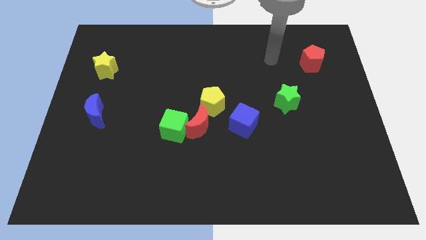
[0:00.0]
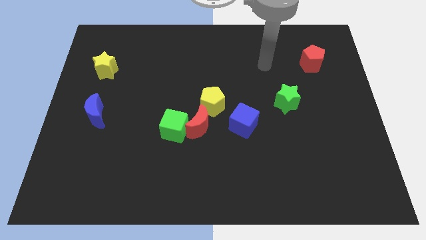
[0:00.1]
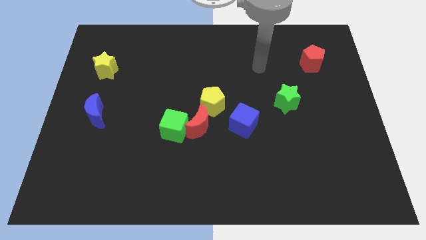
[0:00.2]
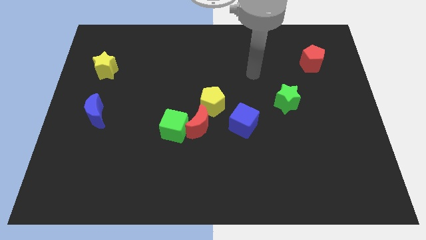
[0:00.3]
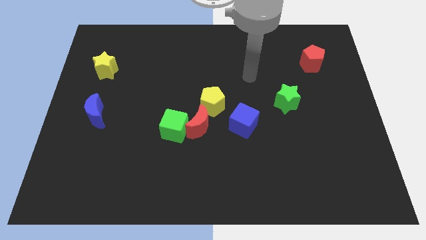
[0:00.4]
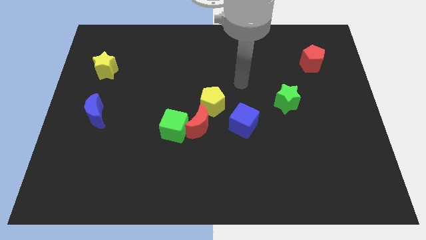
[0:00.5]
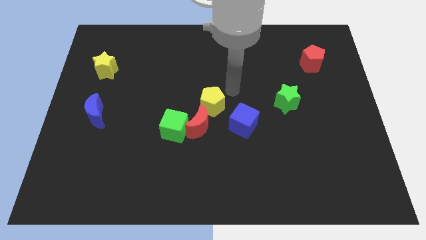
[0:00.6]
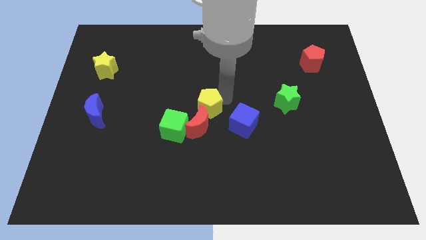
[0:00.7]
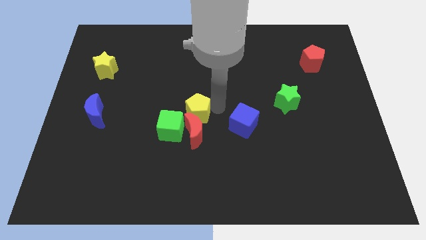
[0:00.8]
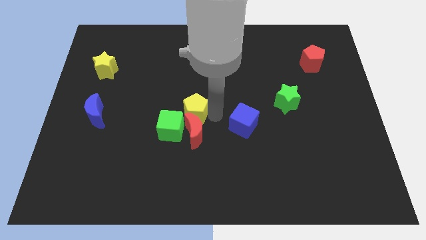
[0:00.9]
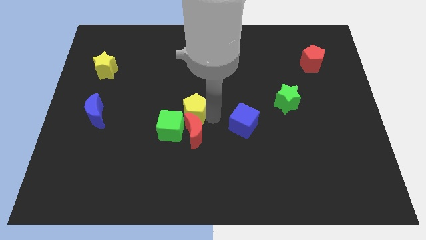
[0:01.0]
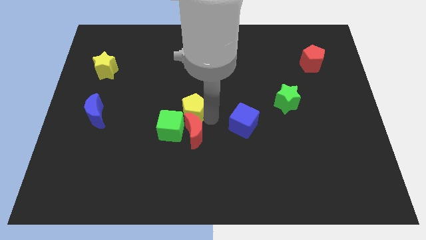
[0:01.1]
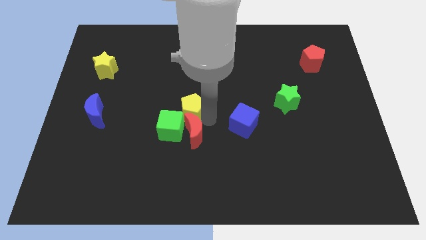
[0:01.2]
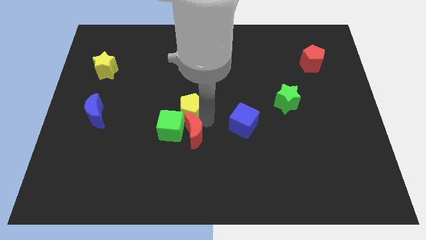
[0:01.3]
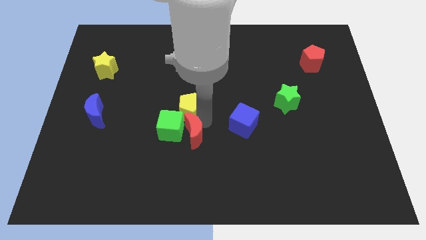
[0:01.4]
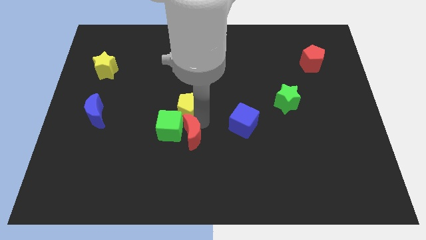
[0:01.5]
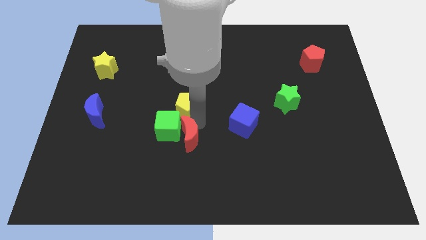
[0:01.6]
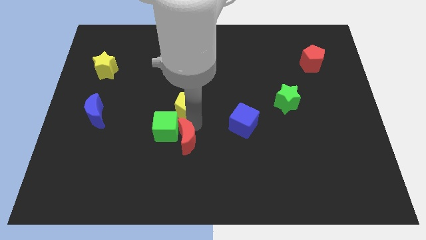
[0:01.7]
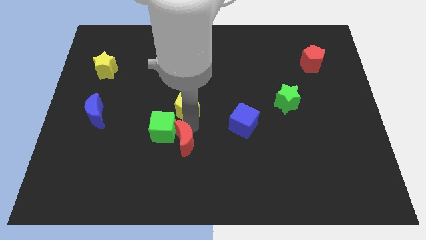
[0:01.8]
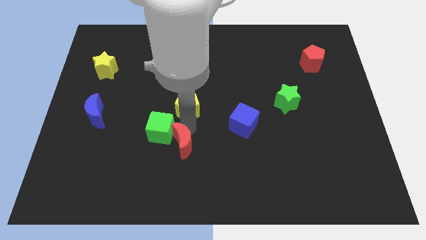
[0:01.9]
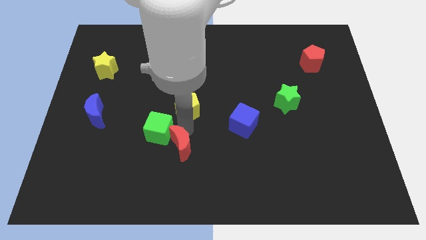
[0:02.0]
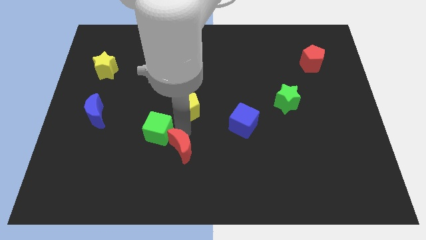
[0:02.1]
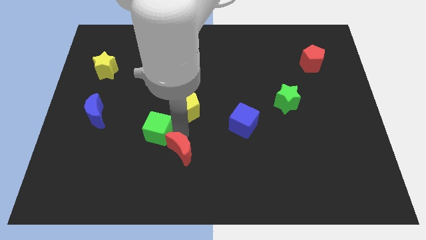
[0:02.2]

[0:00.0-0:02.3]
slightly slide the red moon downwards and to the left

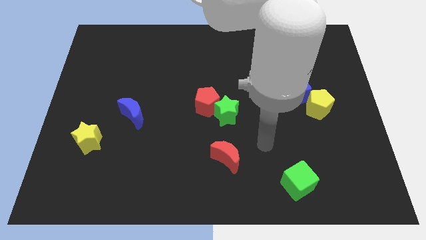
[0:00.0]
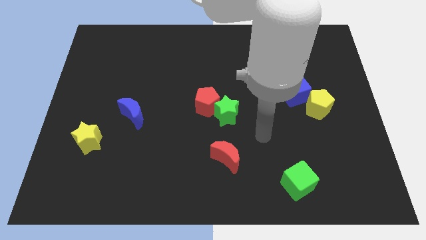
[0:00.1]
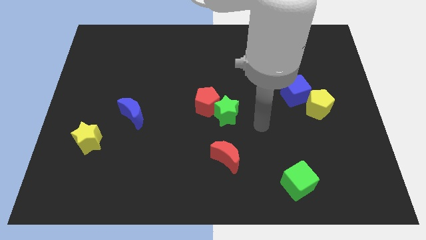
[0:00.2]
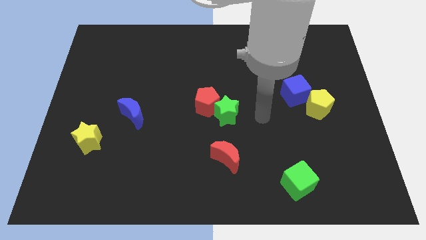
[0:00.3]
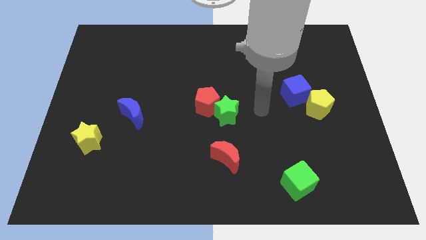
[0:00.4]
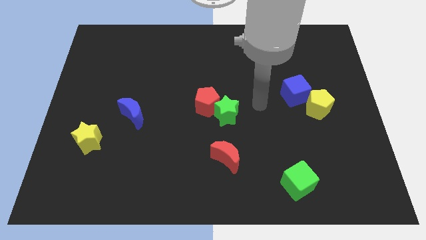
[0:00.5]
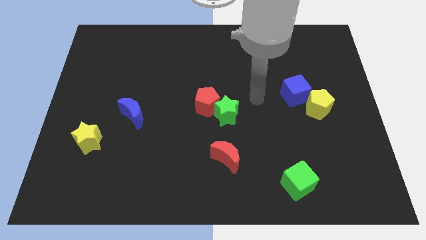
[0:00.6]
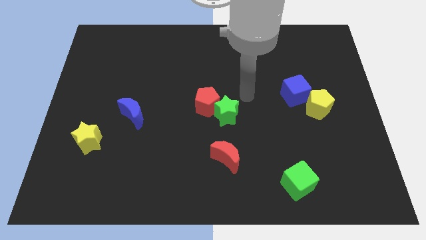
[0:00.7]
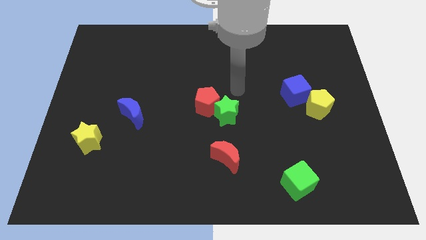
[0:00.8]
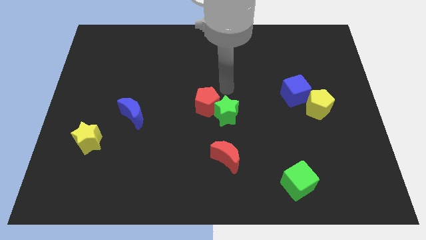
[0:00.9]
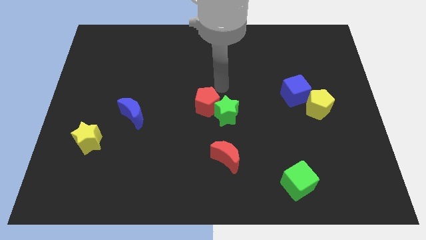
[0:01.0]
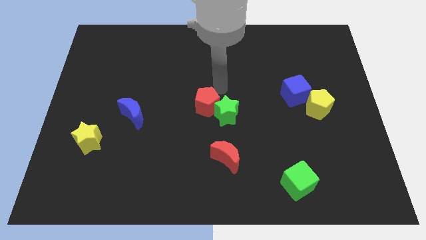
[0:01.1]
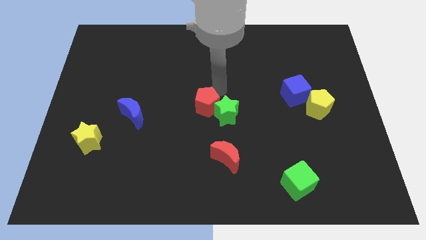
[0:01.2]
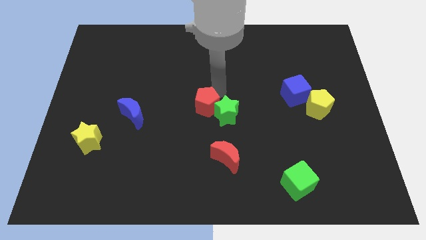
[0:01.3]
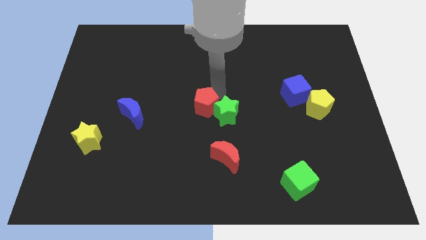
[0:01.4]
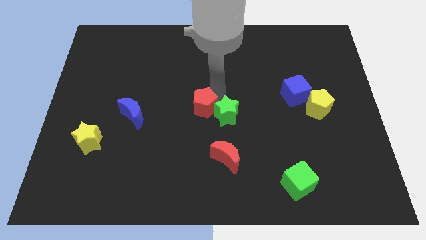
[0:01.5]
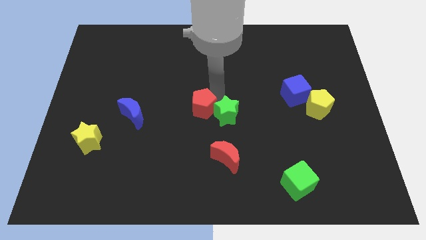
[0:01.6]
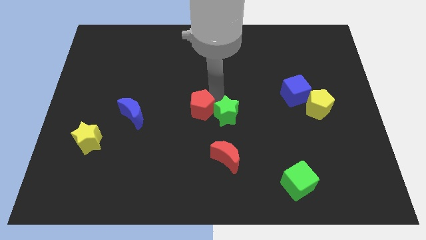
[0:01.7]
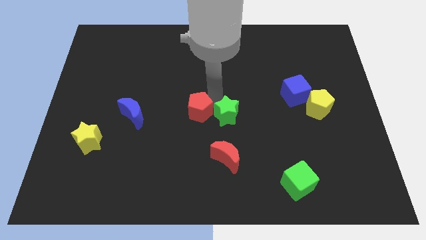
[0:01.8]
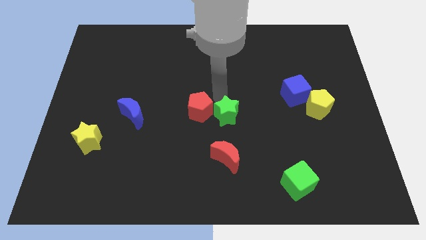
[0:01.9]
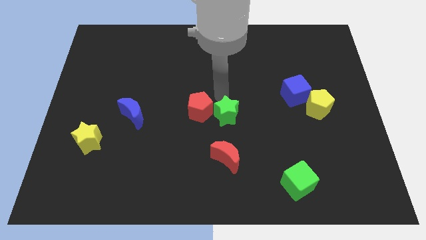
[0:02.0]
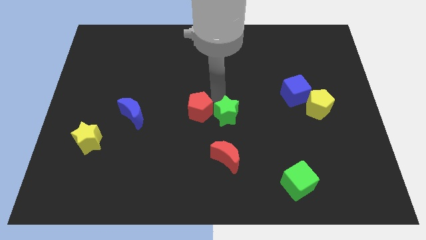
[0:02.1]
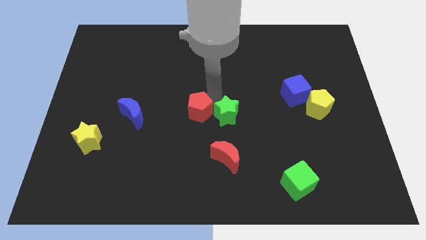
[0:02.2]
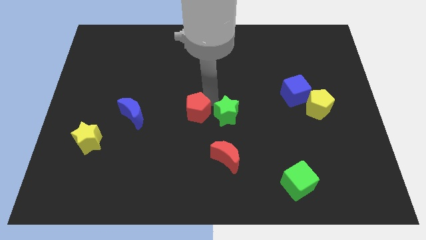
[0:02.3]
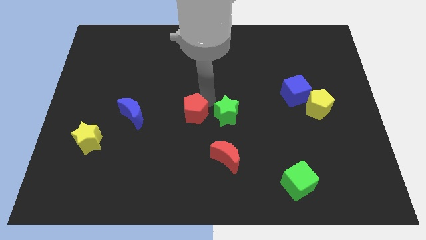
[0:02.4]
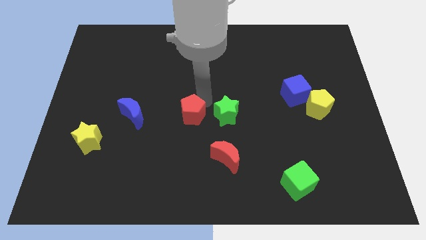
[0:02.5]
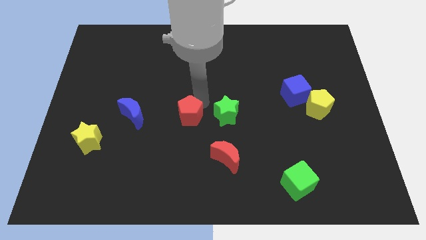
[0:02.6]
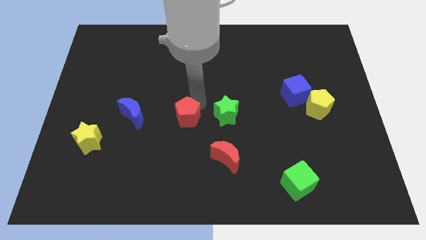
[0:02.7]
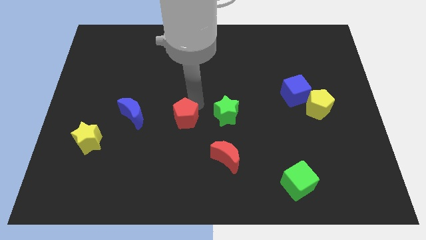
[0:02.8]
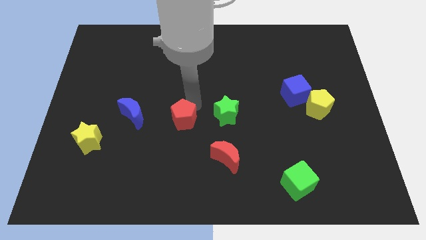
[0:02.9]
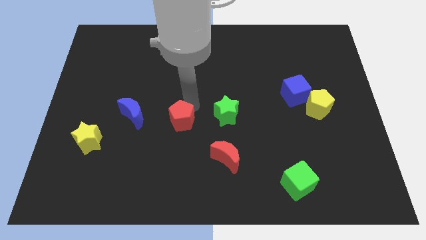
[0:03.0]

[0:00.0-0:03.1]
slide the red pentagon down and left a little bit

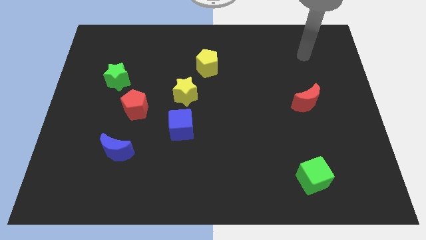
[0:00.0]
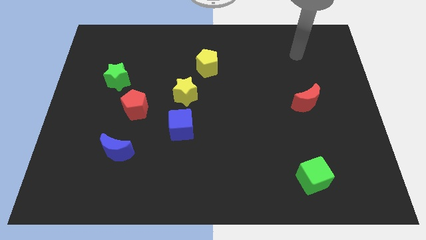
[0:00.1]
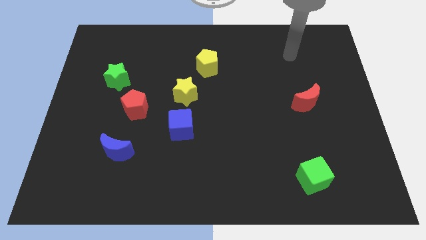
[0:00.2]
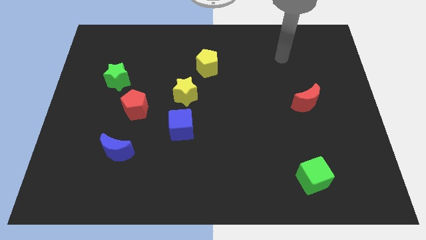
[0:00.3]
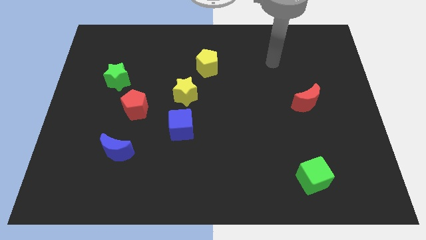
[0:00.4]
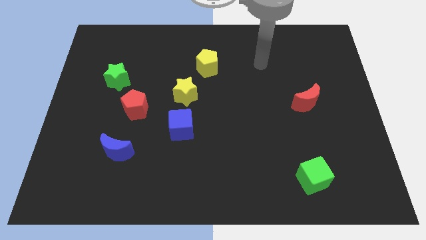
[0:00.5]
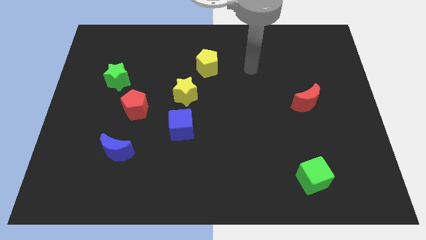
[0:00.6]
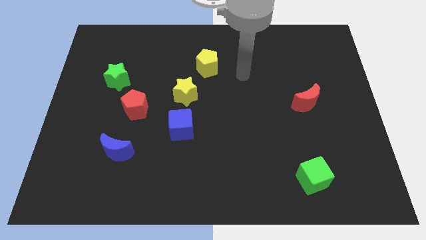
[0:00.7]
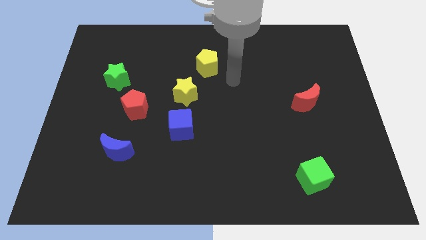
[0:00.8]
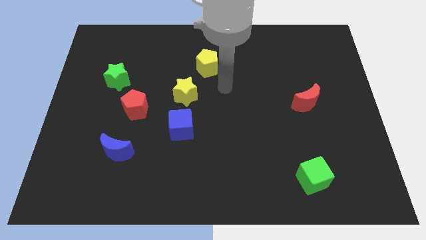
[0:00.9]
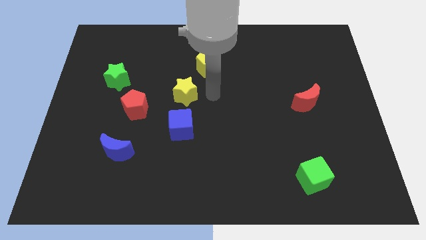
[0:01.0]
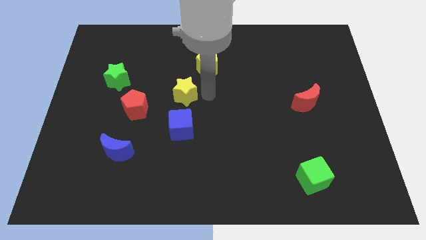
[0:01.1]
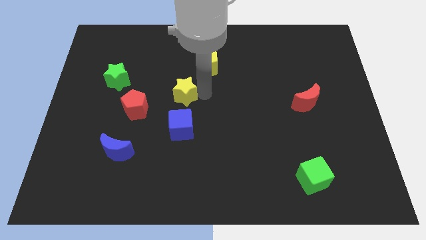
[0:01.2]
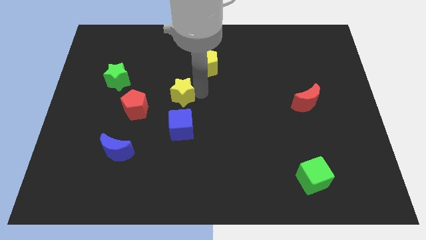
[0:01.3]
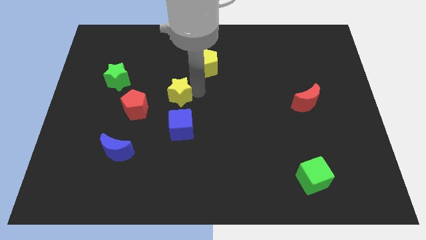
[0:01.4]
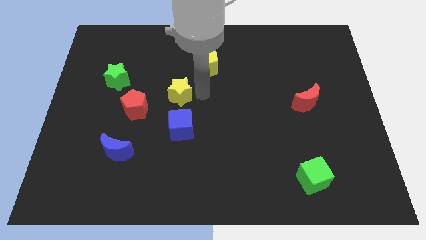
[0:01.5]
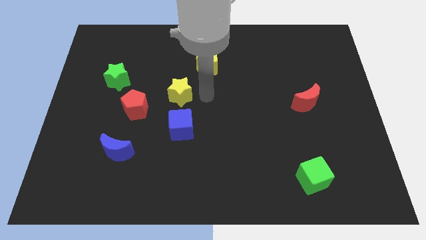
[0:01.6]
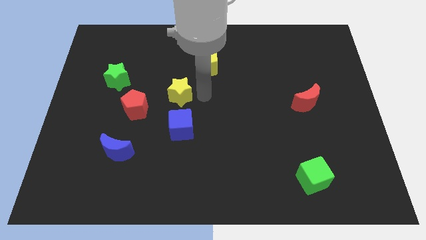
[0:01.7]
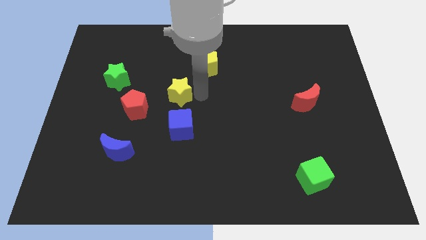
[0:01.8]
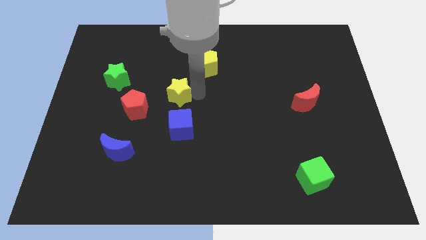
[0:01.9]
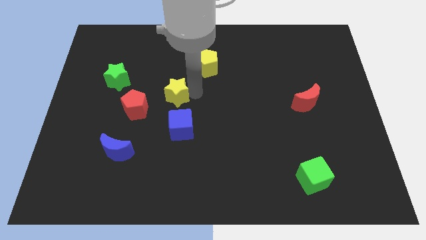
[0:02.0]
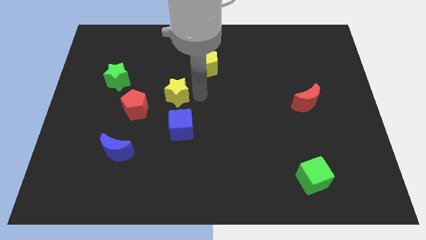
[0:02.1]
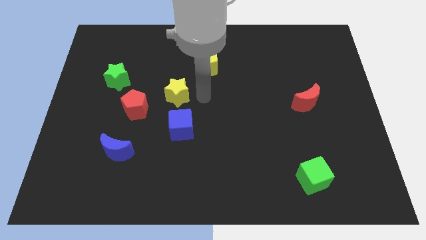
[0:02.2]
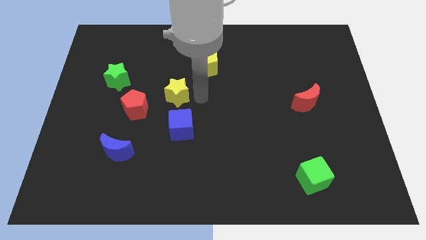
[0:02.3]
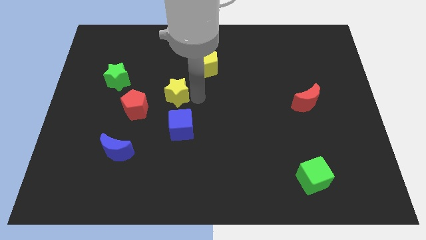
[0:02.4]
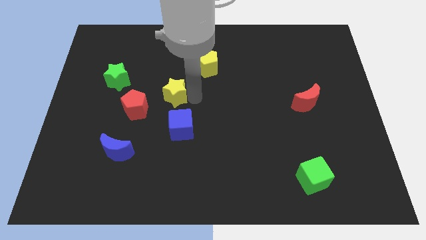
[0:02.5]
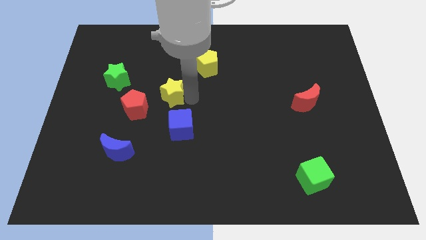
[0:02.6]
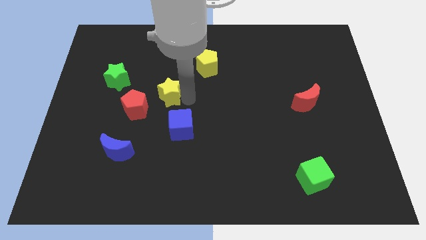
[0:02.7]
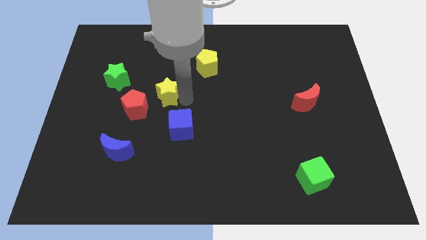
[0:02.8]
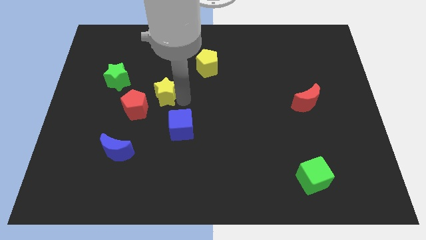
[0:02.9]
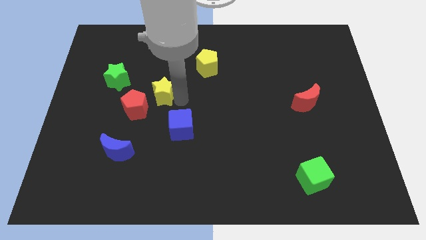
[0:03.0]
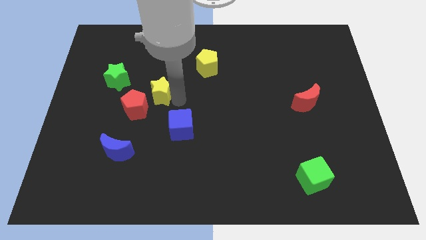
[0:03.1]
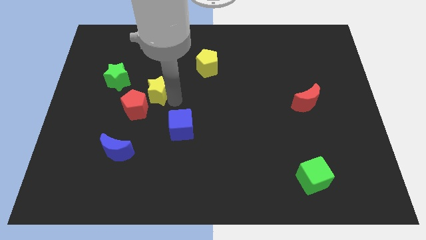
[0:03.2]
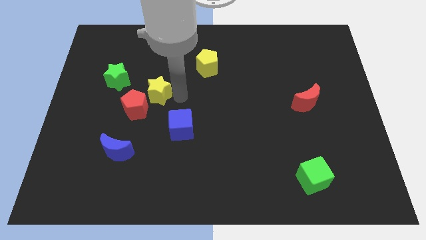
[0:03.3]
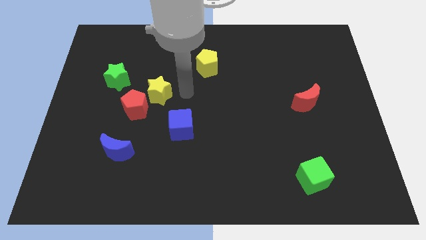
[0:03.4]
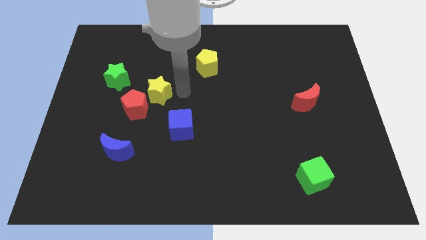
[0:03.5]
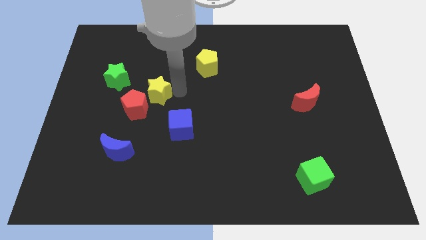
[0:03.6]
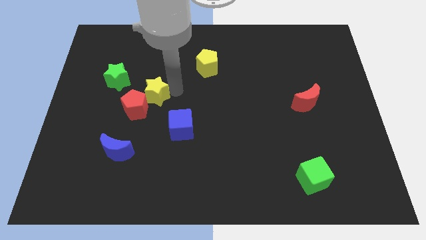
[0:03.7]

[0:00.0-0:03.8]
slide the yellow star slightly left
